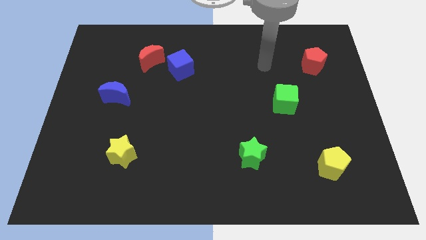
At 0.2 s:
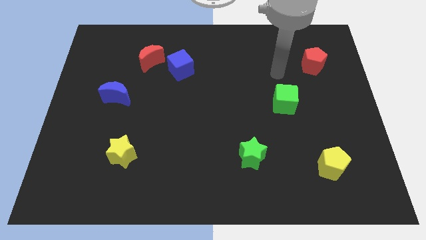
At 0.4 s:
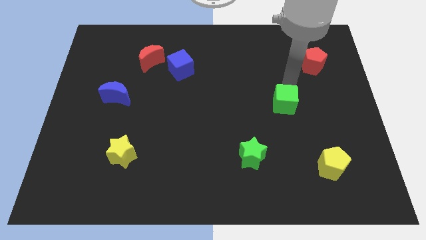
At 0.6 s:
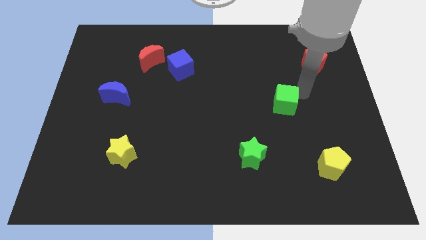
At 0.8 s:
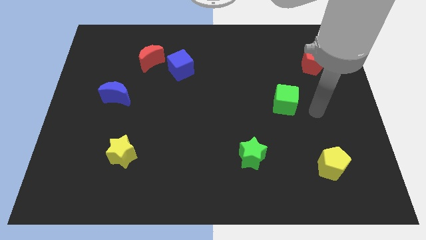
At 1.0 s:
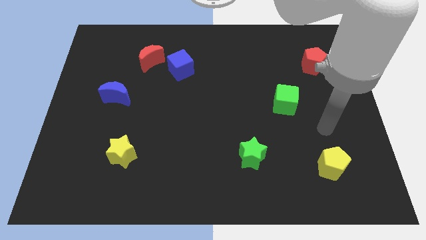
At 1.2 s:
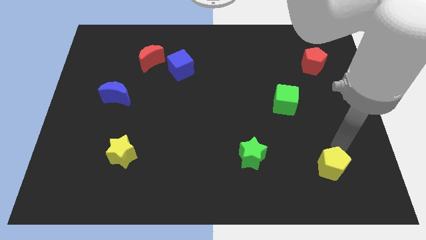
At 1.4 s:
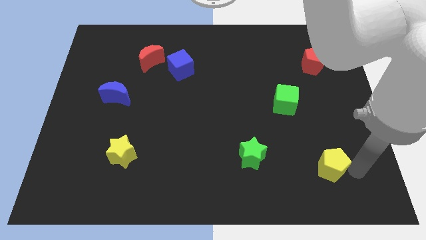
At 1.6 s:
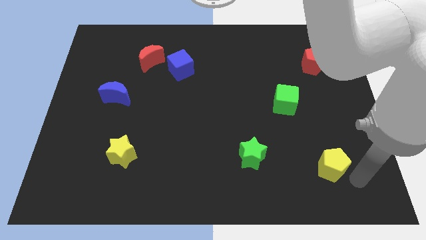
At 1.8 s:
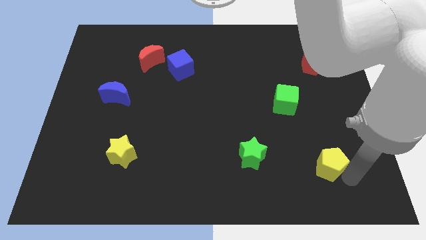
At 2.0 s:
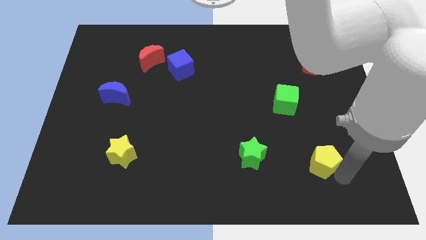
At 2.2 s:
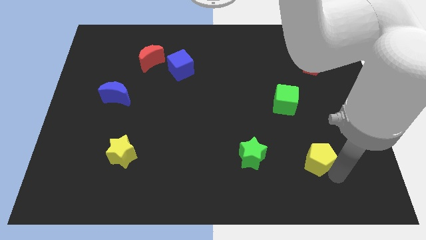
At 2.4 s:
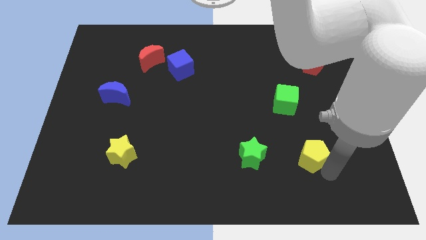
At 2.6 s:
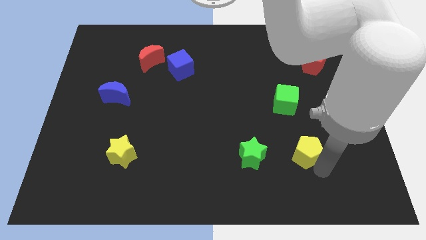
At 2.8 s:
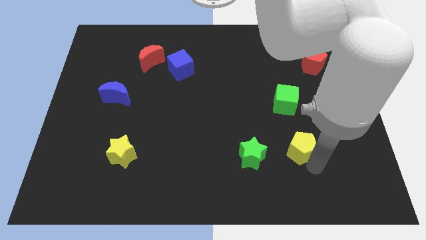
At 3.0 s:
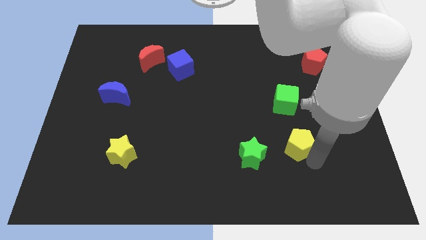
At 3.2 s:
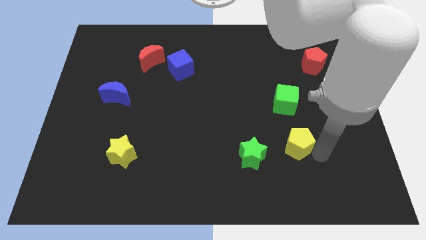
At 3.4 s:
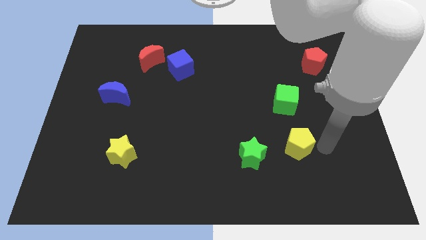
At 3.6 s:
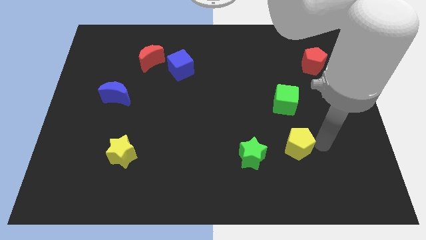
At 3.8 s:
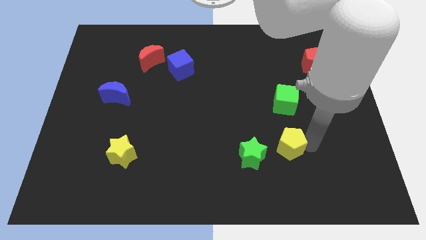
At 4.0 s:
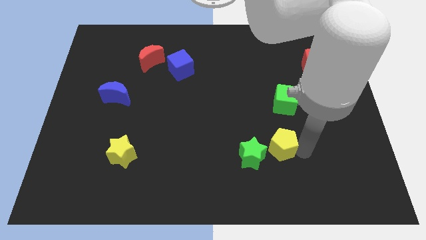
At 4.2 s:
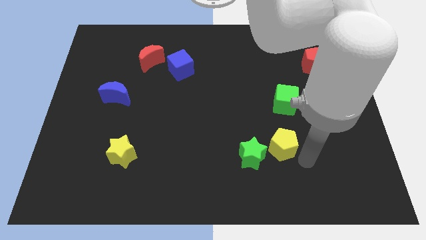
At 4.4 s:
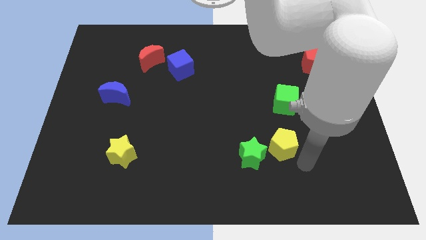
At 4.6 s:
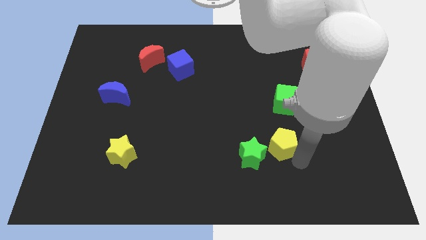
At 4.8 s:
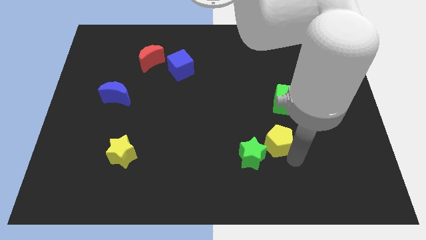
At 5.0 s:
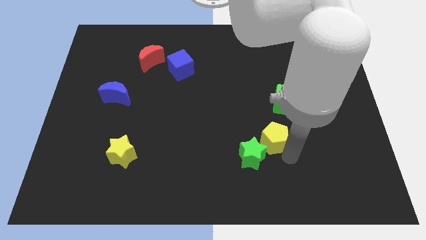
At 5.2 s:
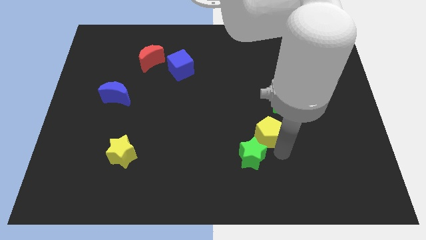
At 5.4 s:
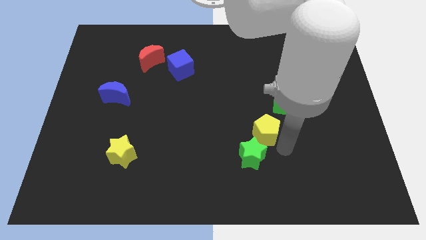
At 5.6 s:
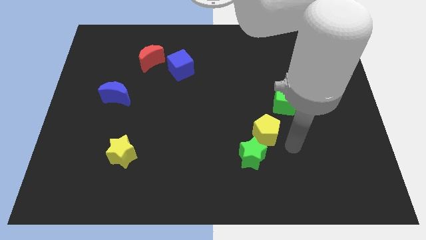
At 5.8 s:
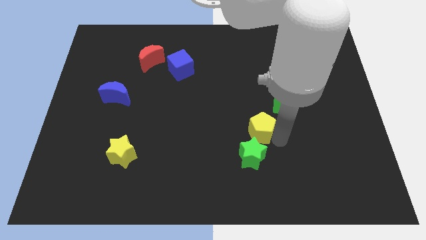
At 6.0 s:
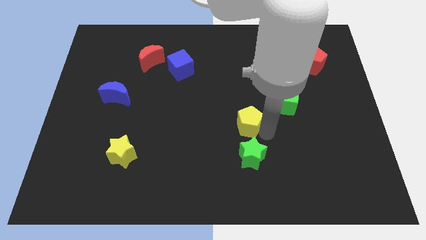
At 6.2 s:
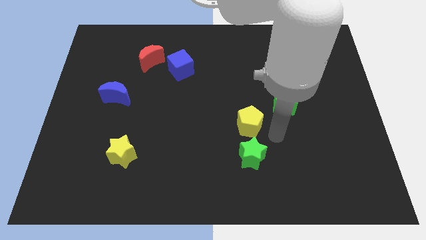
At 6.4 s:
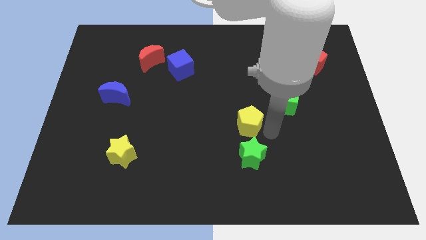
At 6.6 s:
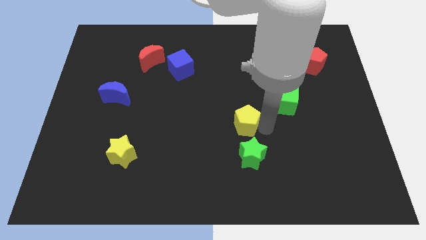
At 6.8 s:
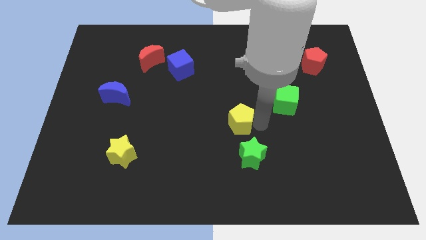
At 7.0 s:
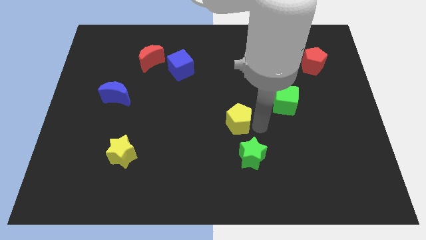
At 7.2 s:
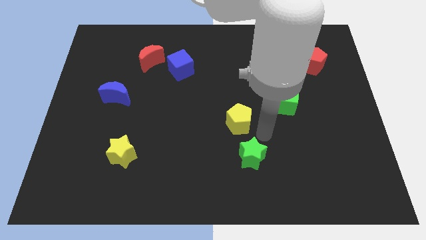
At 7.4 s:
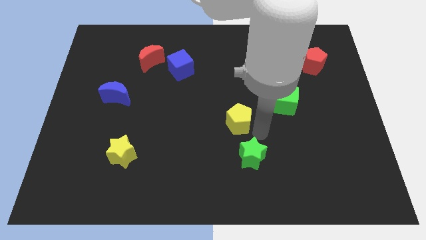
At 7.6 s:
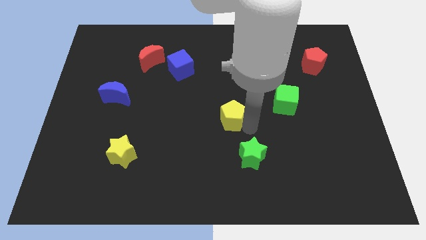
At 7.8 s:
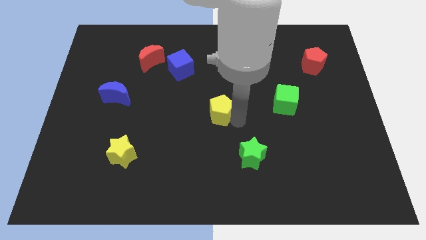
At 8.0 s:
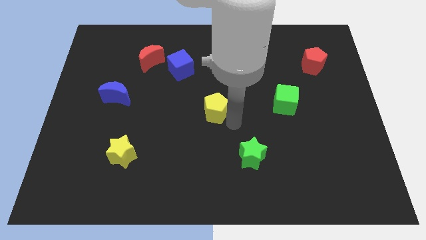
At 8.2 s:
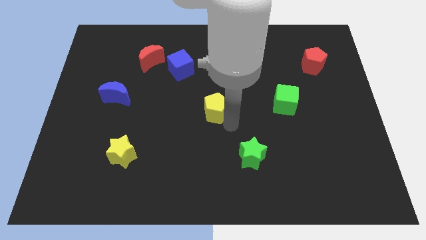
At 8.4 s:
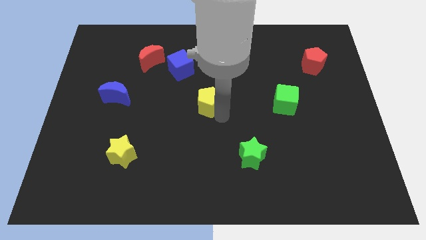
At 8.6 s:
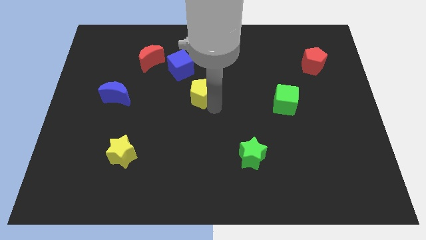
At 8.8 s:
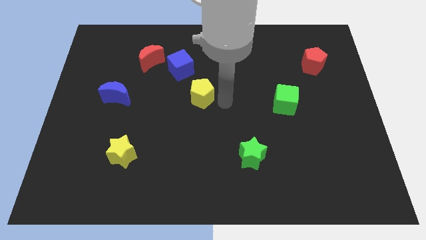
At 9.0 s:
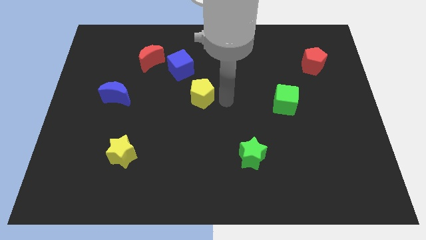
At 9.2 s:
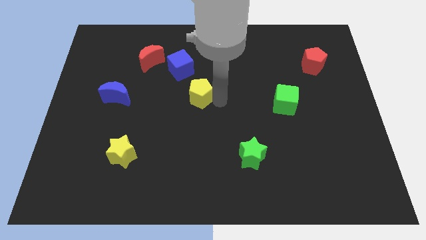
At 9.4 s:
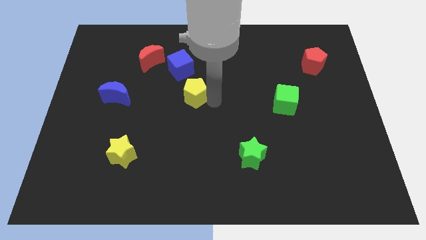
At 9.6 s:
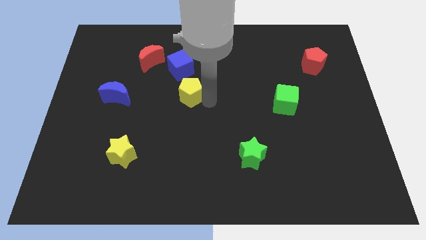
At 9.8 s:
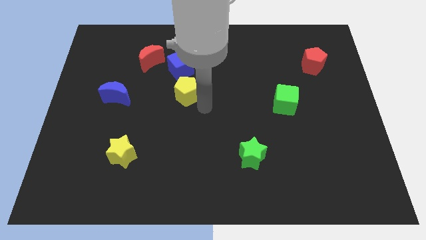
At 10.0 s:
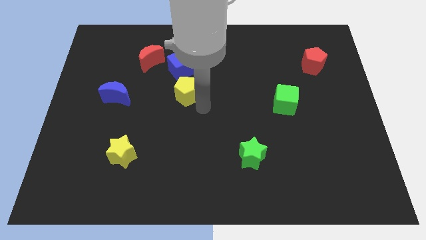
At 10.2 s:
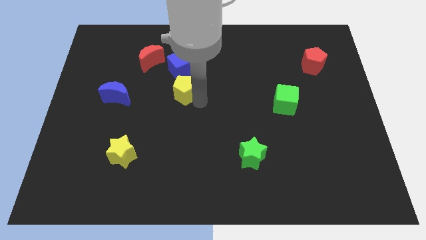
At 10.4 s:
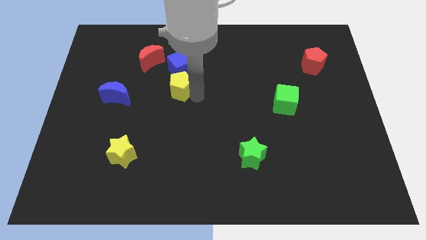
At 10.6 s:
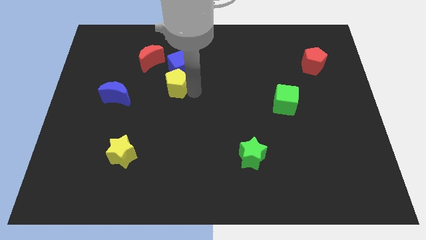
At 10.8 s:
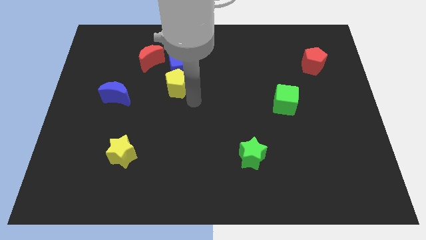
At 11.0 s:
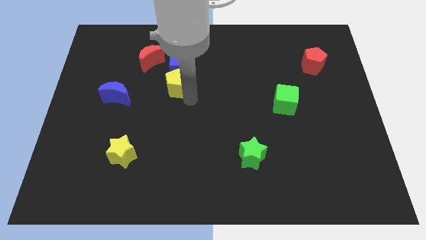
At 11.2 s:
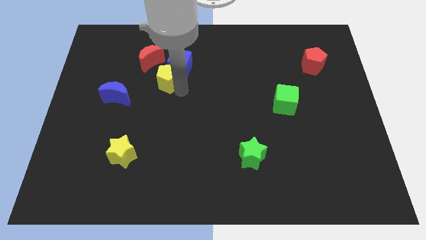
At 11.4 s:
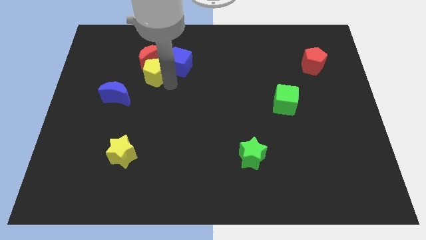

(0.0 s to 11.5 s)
push the yellow pentagon next to the red moon

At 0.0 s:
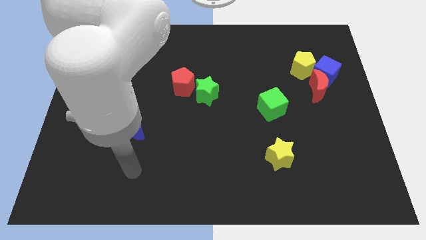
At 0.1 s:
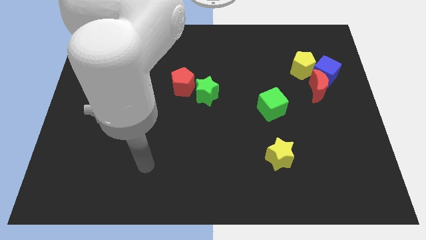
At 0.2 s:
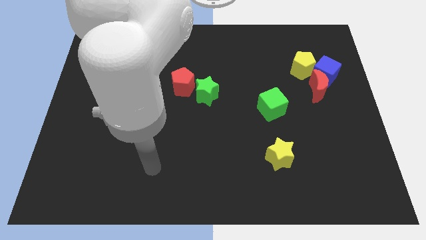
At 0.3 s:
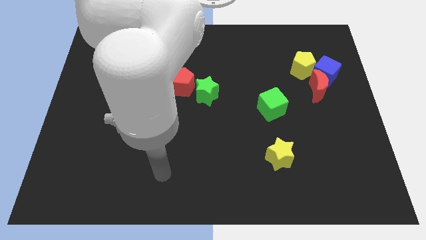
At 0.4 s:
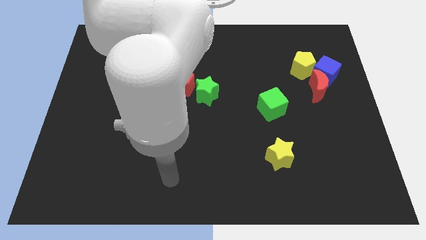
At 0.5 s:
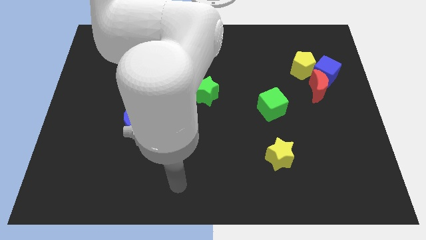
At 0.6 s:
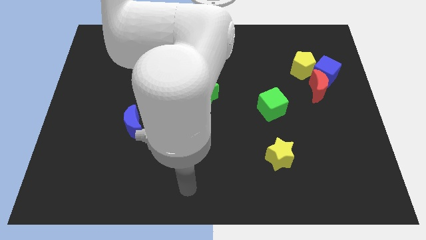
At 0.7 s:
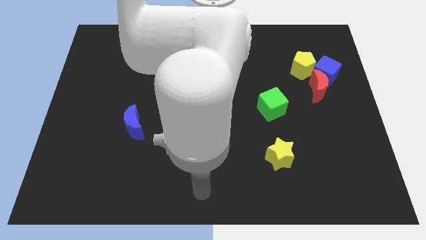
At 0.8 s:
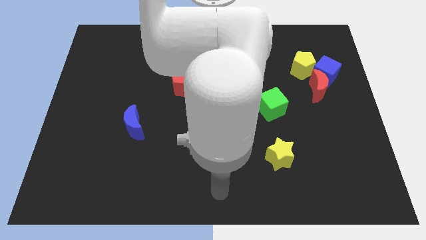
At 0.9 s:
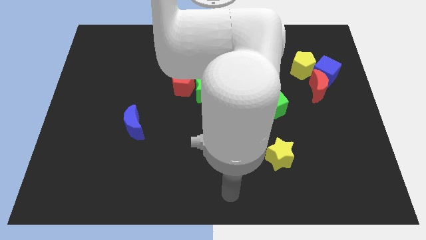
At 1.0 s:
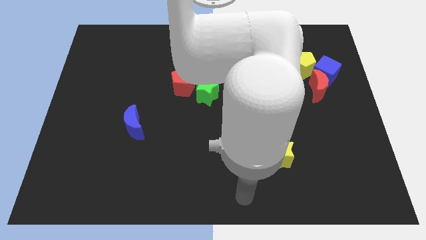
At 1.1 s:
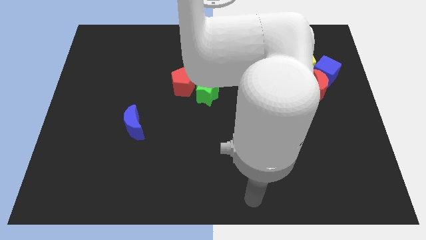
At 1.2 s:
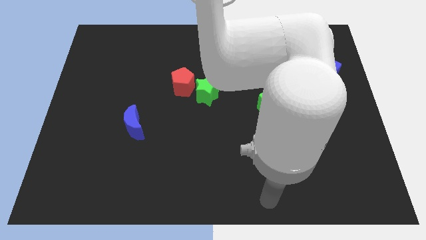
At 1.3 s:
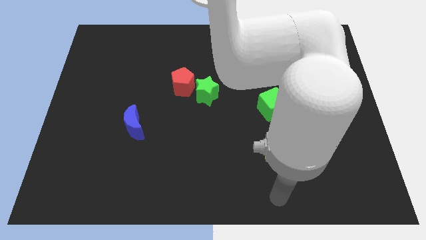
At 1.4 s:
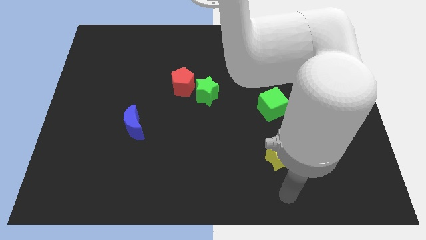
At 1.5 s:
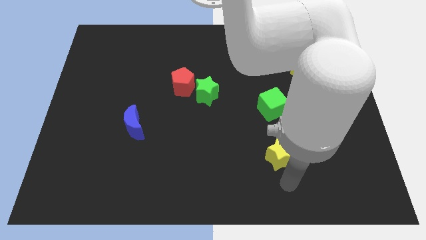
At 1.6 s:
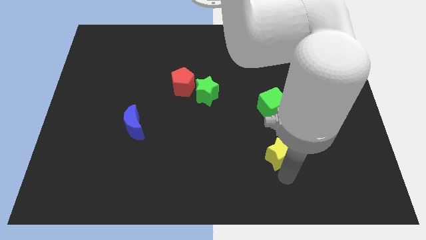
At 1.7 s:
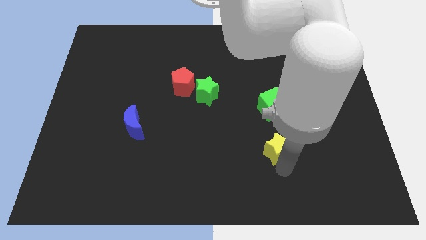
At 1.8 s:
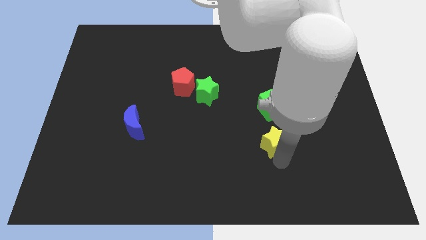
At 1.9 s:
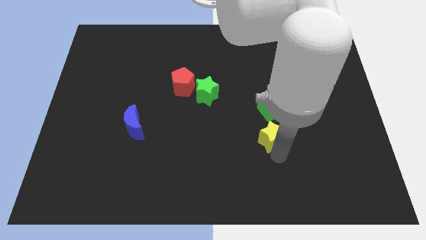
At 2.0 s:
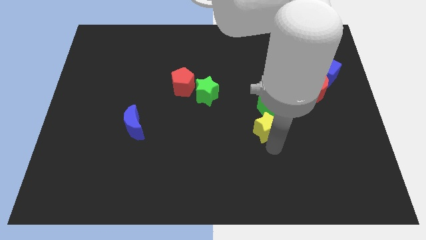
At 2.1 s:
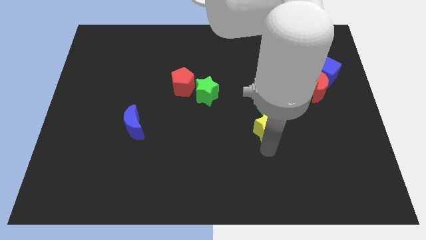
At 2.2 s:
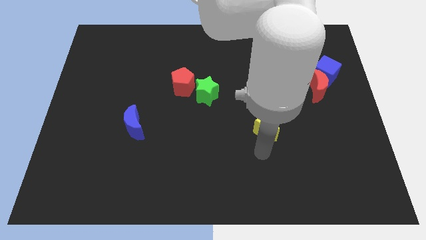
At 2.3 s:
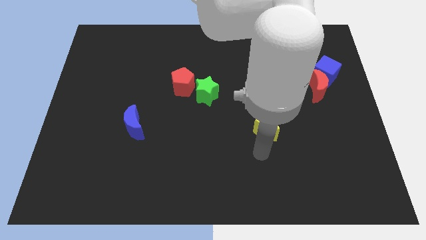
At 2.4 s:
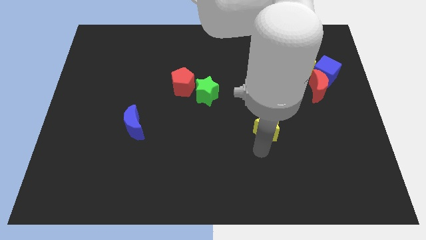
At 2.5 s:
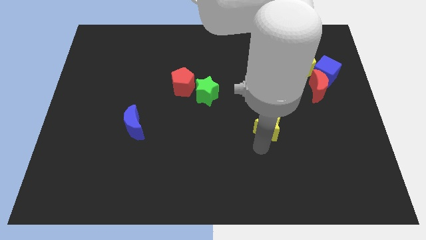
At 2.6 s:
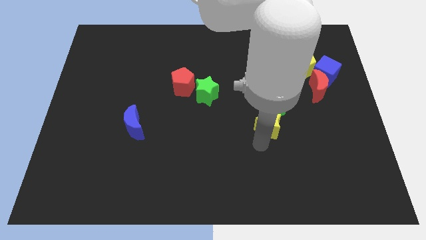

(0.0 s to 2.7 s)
slide the yellow star close to the green cube
